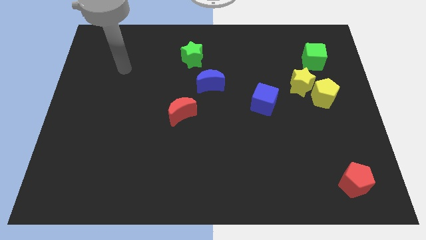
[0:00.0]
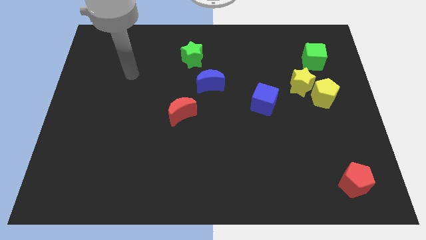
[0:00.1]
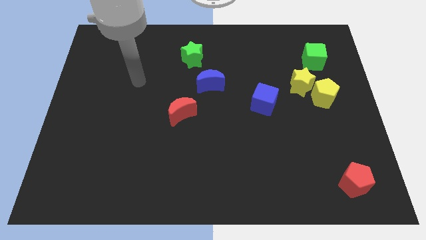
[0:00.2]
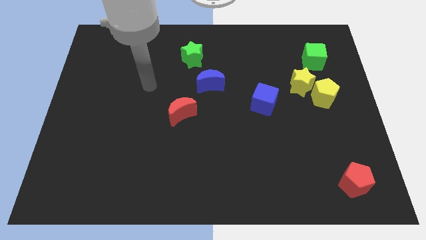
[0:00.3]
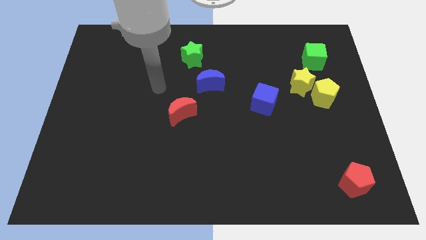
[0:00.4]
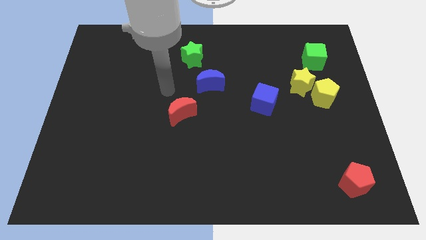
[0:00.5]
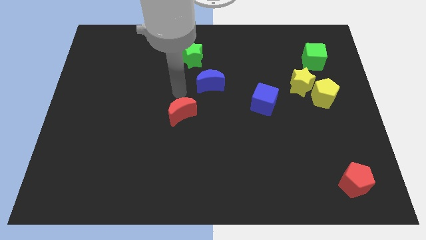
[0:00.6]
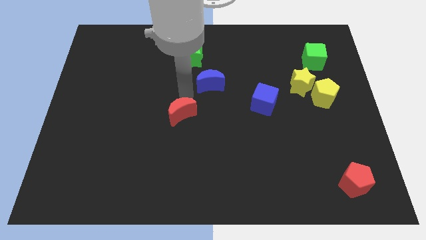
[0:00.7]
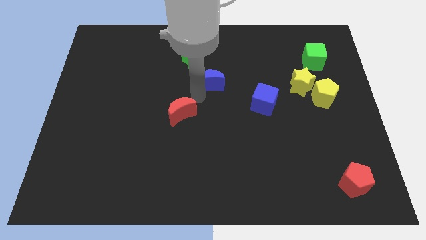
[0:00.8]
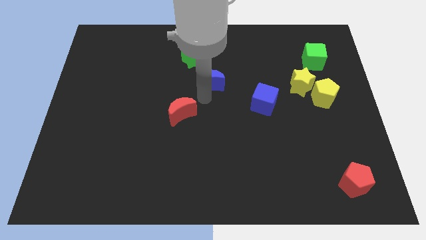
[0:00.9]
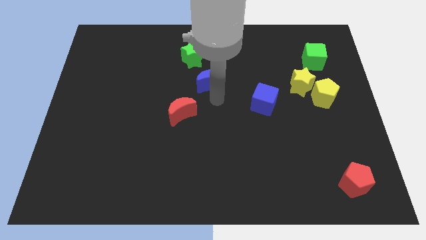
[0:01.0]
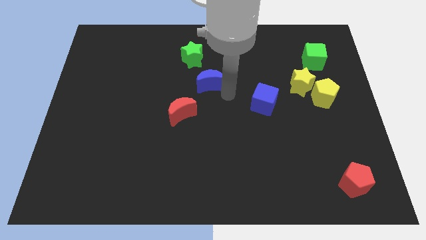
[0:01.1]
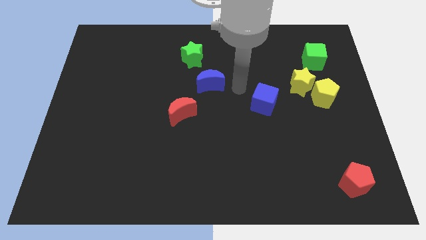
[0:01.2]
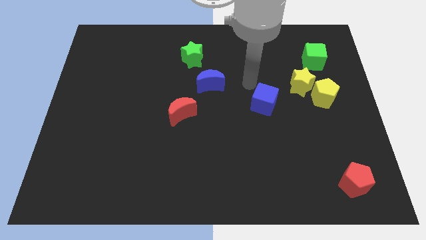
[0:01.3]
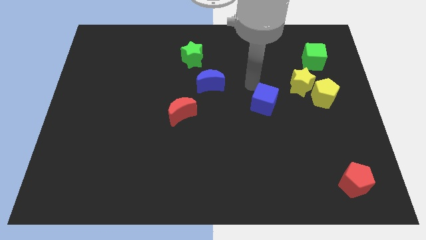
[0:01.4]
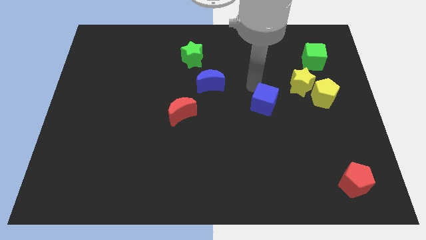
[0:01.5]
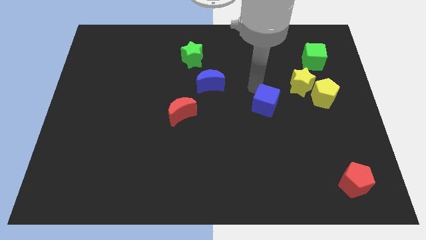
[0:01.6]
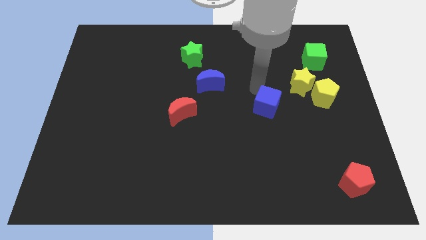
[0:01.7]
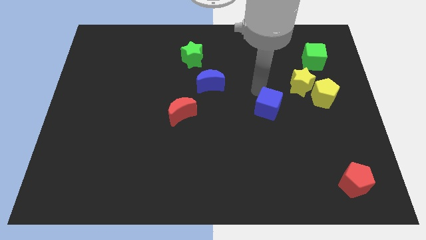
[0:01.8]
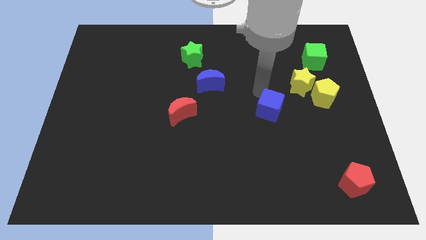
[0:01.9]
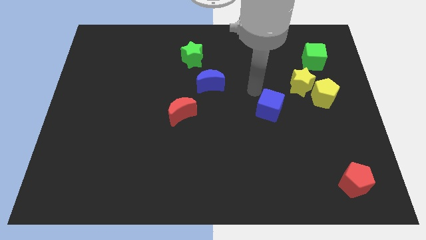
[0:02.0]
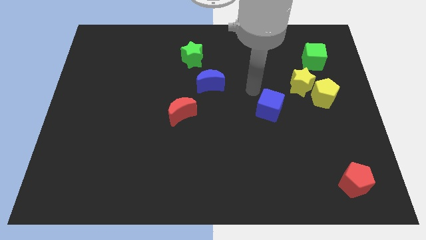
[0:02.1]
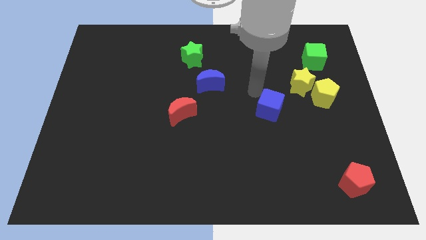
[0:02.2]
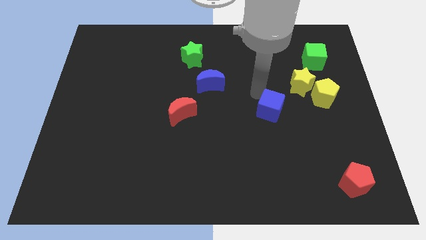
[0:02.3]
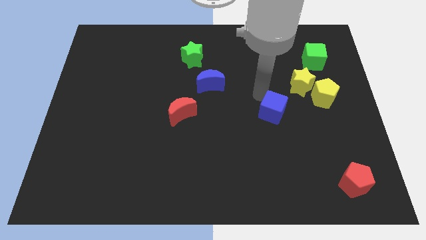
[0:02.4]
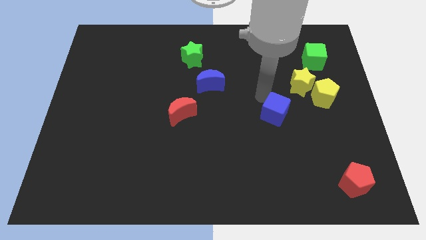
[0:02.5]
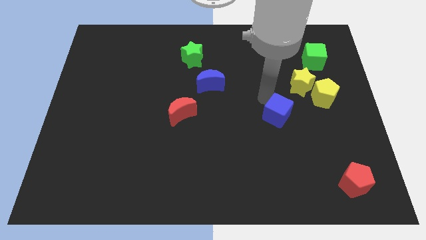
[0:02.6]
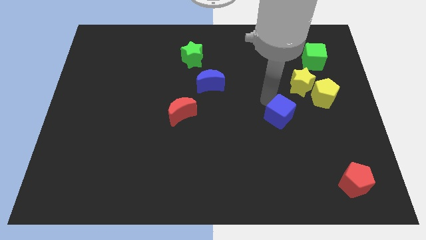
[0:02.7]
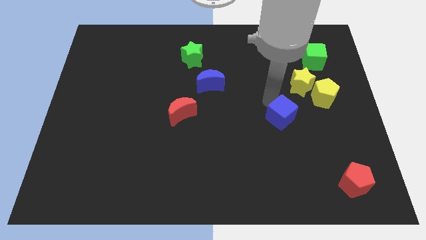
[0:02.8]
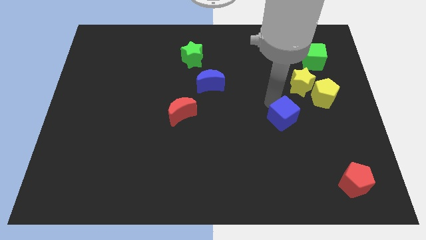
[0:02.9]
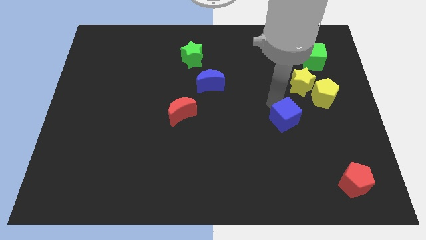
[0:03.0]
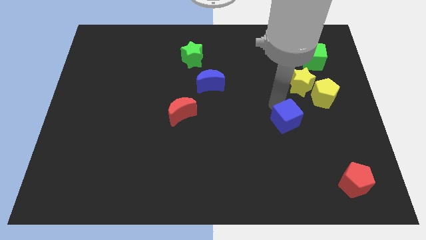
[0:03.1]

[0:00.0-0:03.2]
slightly slide the blue cube diagonally down and to the right

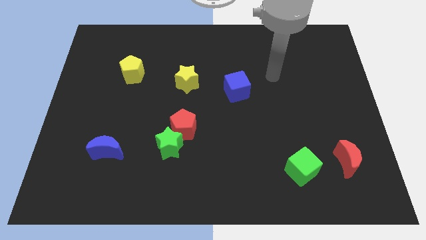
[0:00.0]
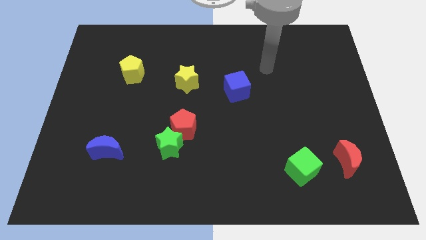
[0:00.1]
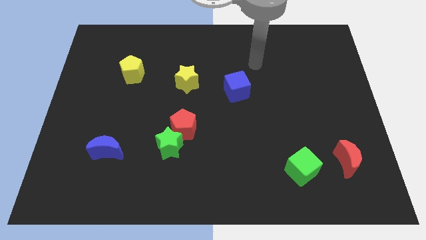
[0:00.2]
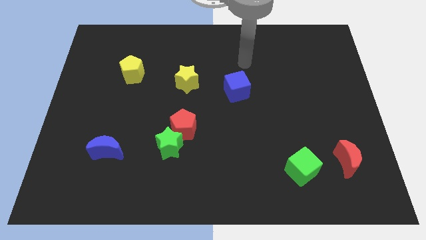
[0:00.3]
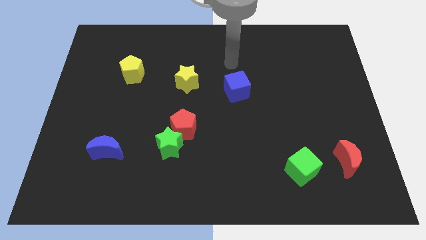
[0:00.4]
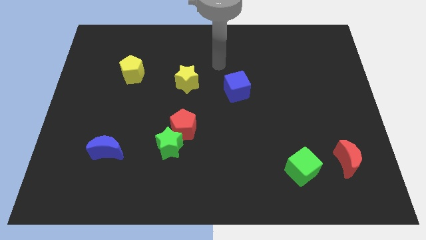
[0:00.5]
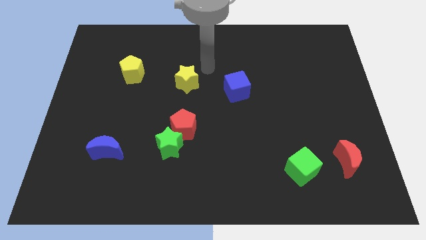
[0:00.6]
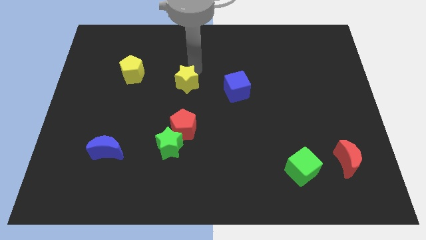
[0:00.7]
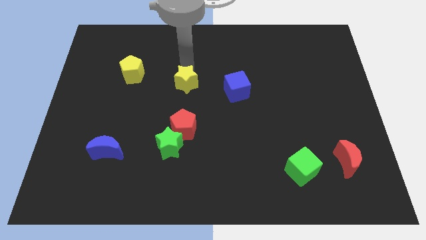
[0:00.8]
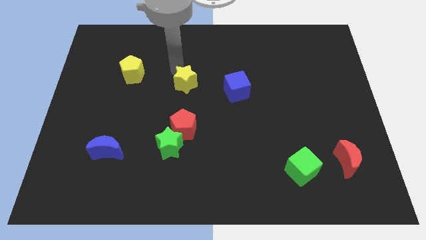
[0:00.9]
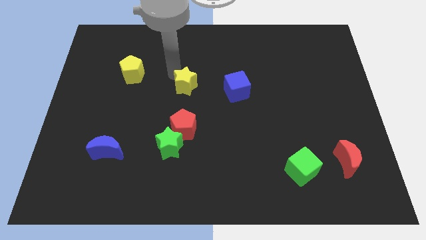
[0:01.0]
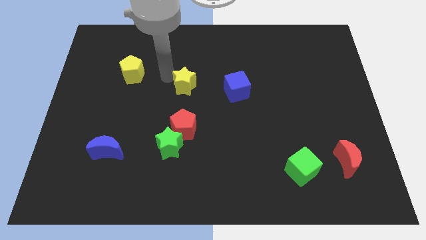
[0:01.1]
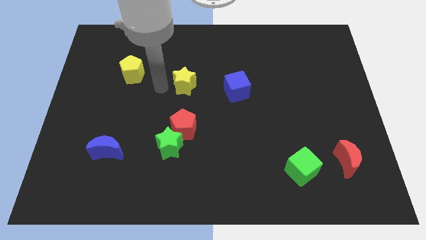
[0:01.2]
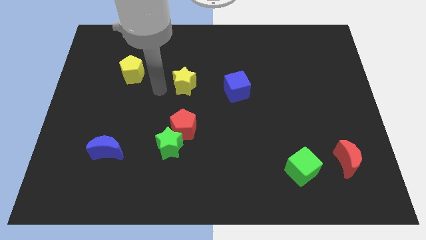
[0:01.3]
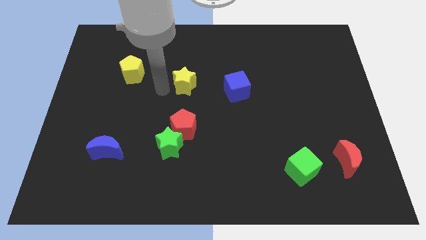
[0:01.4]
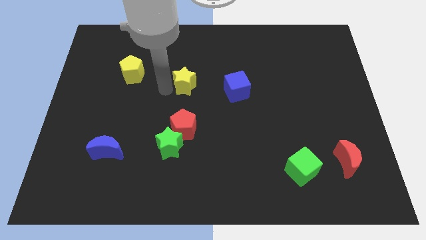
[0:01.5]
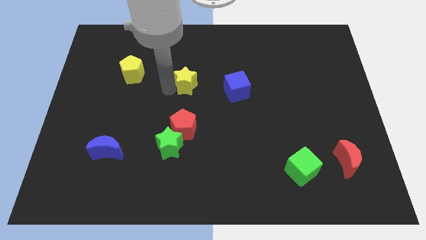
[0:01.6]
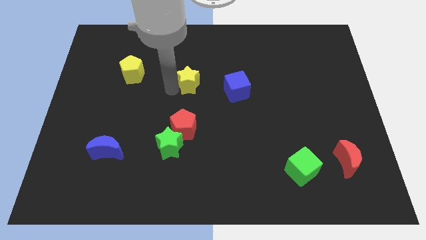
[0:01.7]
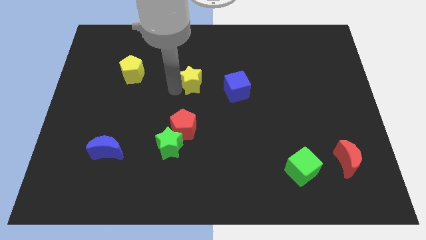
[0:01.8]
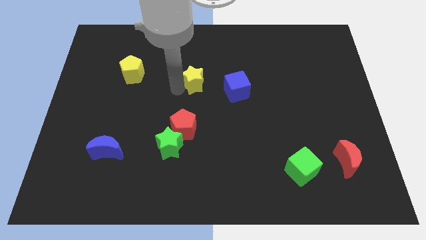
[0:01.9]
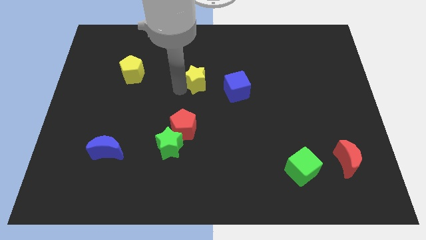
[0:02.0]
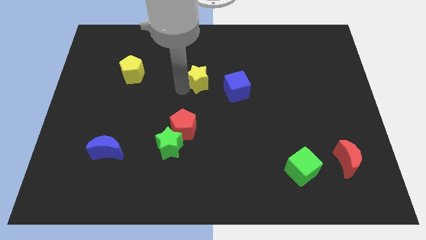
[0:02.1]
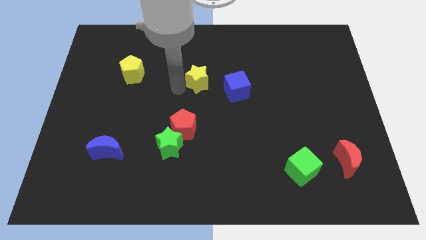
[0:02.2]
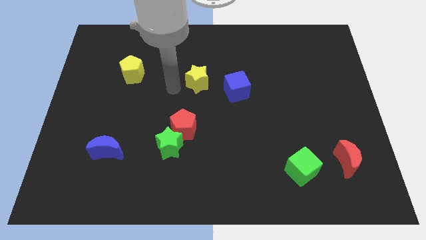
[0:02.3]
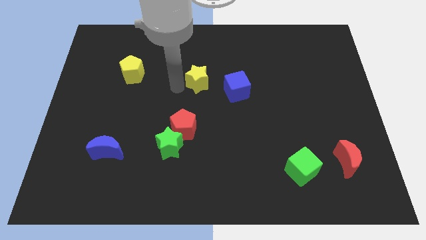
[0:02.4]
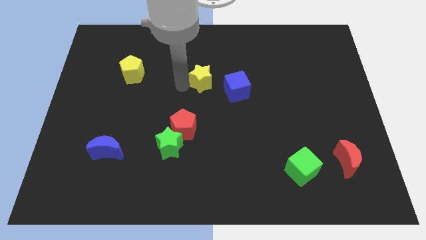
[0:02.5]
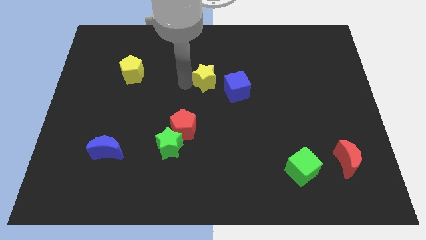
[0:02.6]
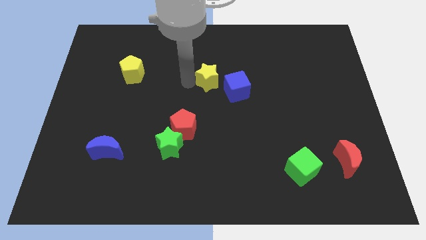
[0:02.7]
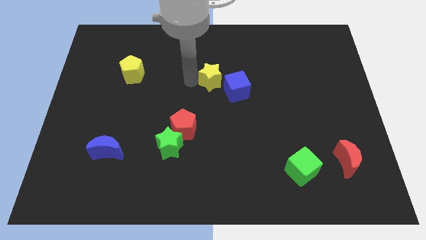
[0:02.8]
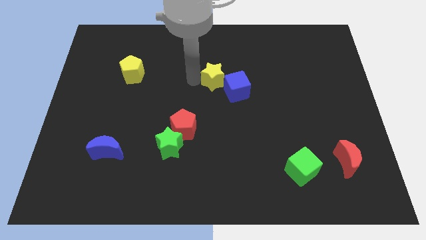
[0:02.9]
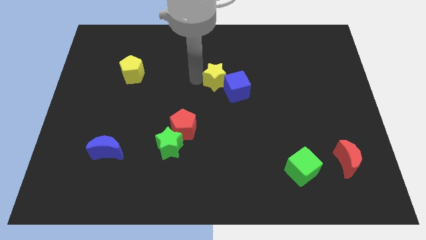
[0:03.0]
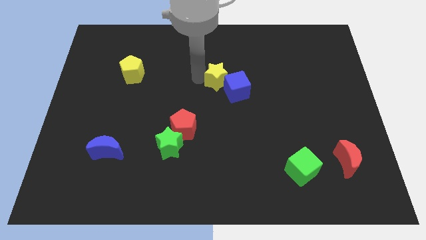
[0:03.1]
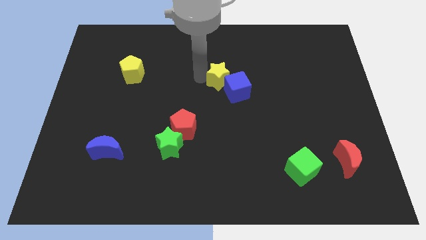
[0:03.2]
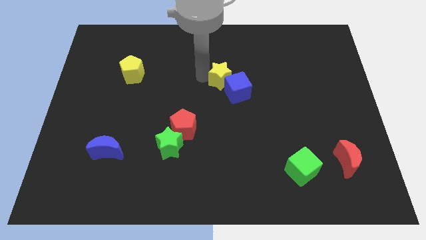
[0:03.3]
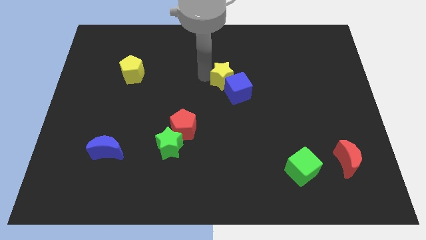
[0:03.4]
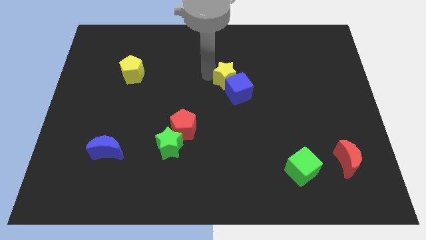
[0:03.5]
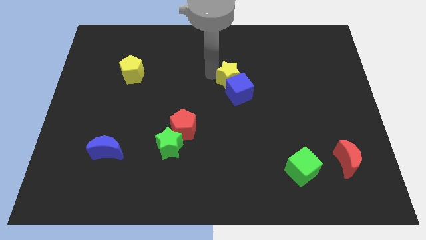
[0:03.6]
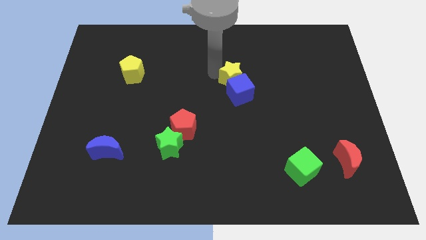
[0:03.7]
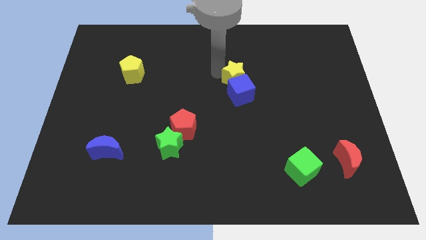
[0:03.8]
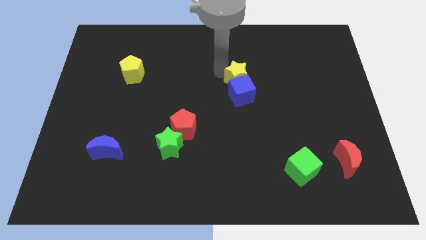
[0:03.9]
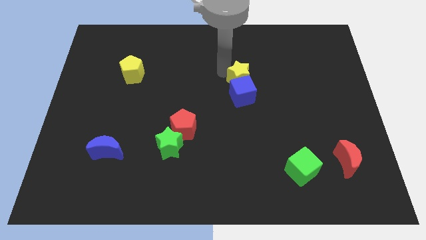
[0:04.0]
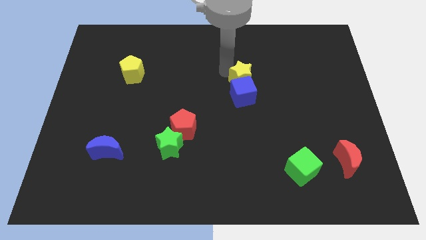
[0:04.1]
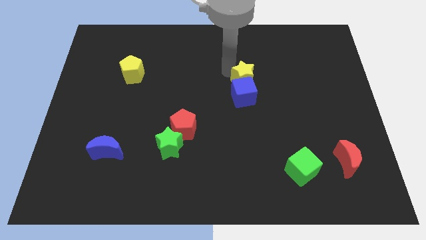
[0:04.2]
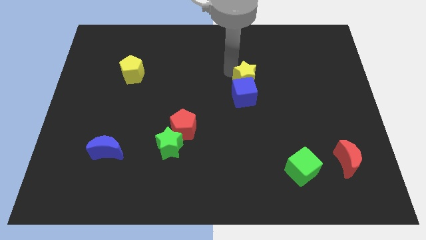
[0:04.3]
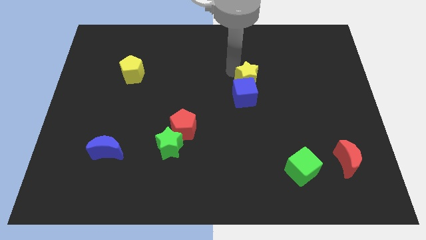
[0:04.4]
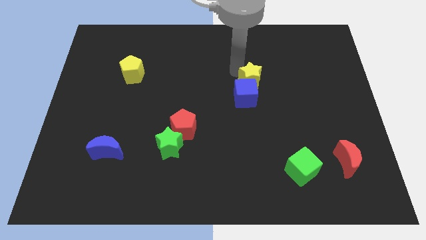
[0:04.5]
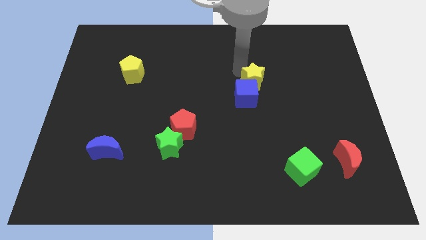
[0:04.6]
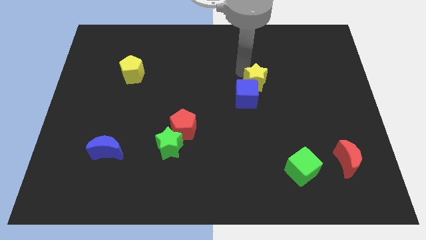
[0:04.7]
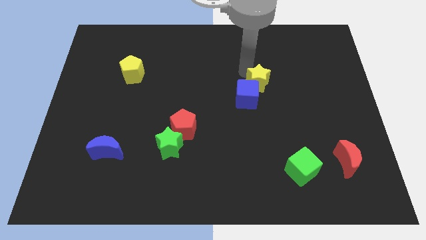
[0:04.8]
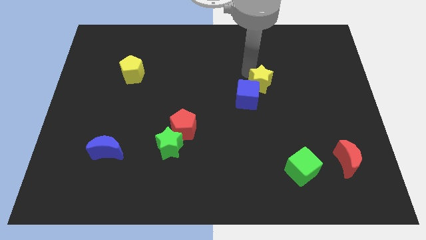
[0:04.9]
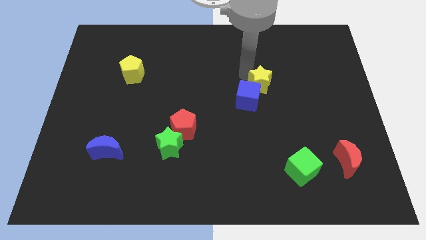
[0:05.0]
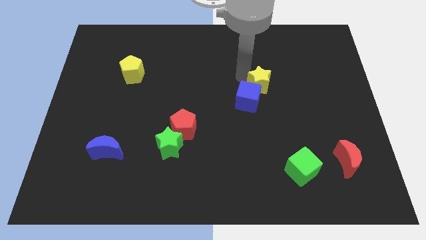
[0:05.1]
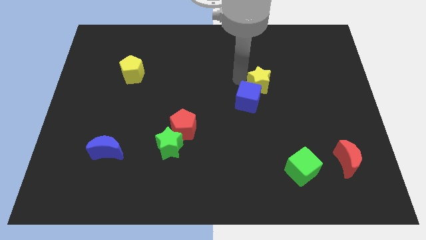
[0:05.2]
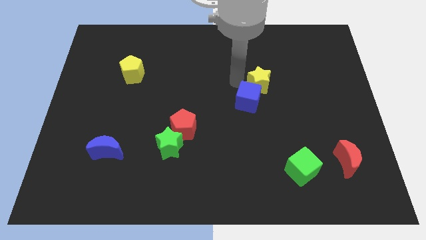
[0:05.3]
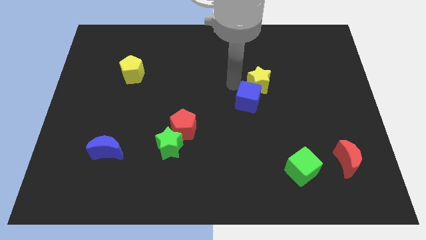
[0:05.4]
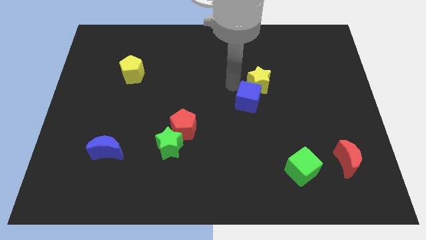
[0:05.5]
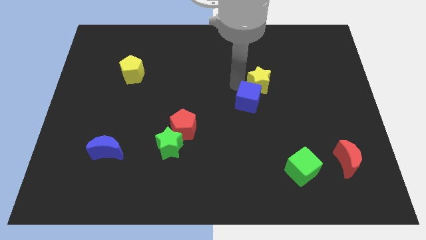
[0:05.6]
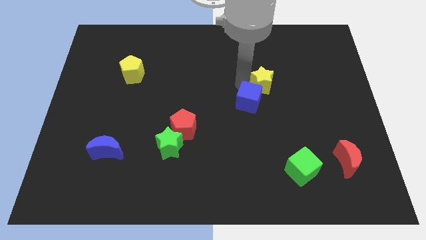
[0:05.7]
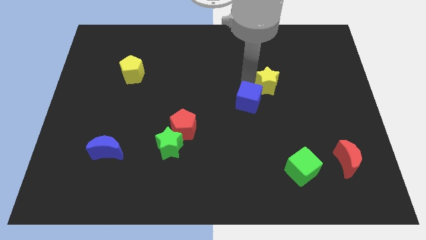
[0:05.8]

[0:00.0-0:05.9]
move the yellow star right
